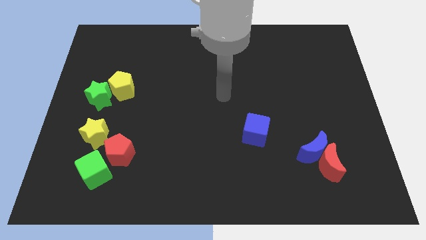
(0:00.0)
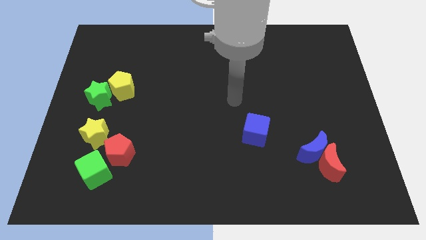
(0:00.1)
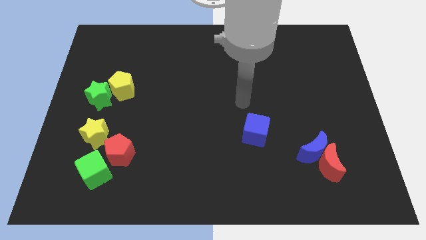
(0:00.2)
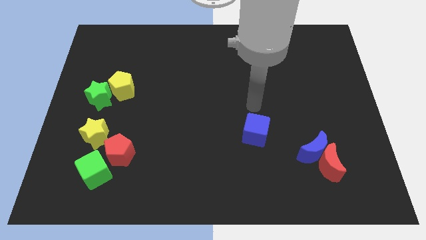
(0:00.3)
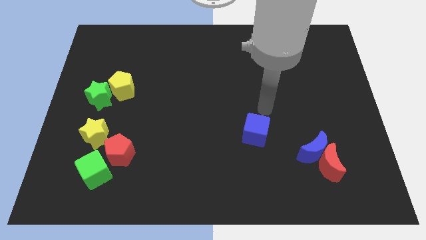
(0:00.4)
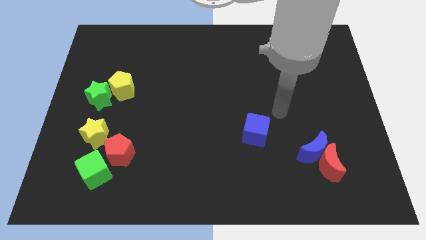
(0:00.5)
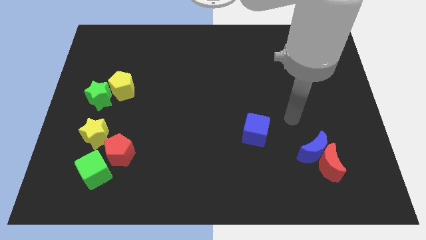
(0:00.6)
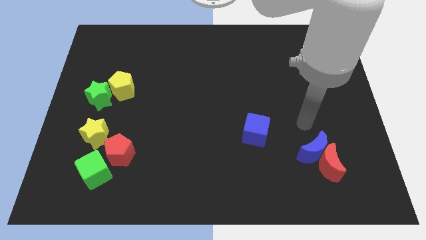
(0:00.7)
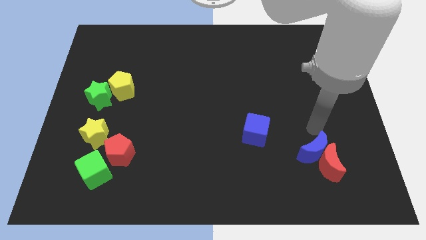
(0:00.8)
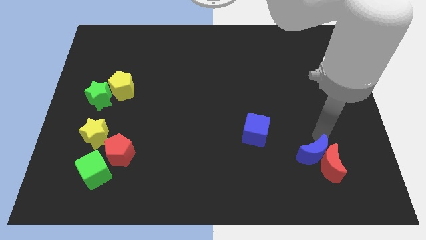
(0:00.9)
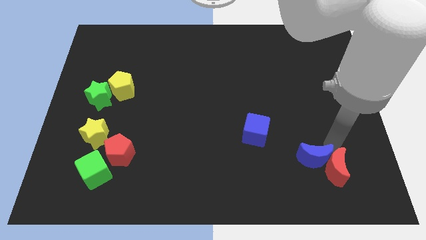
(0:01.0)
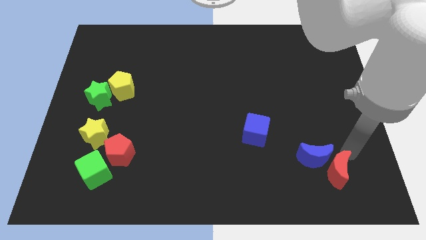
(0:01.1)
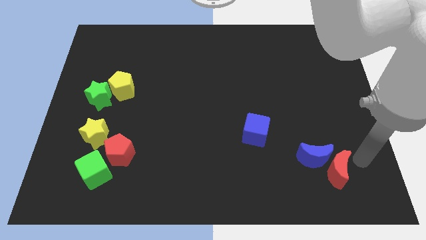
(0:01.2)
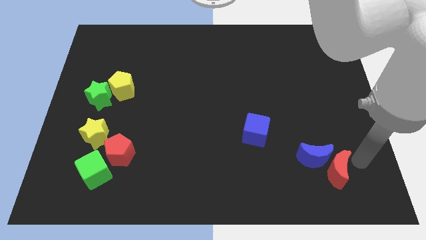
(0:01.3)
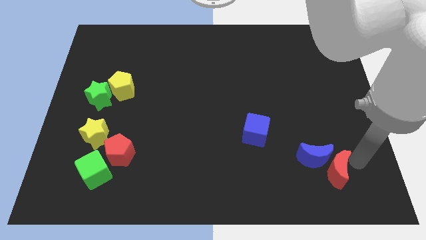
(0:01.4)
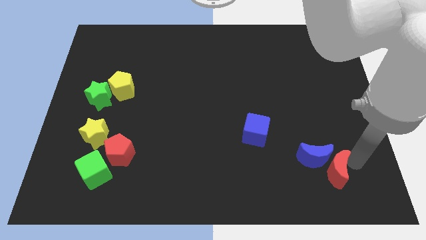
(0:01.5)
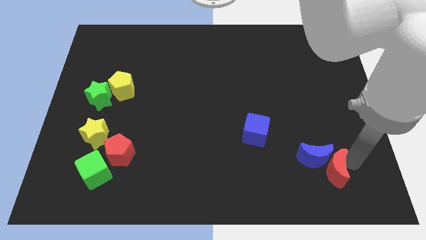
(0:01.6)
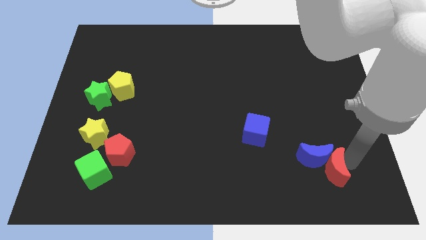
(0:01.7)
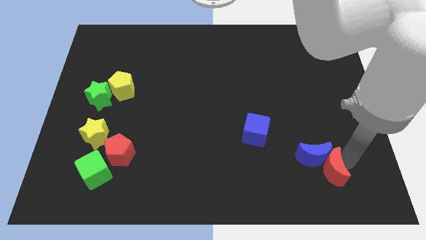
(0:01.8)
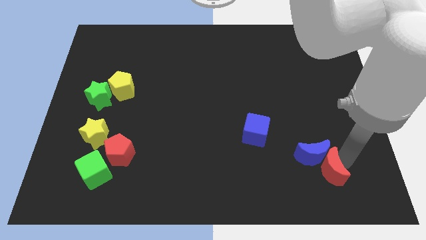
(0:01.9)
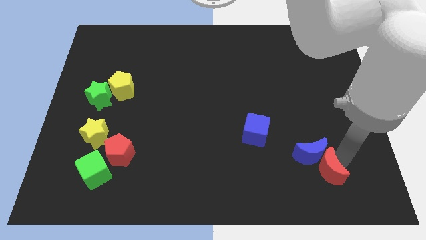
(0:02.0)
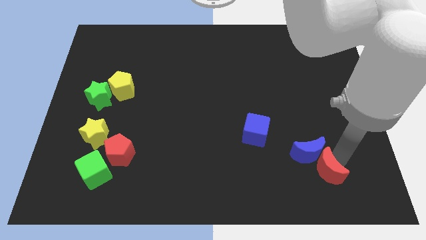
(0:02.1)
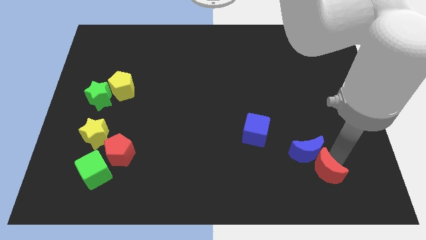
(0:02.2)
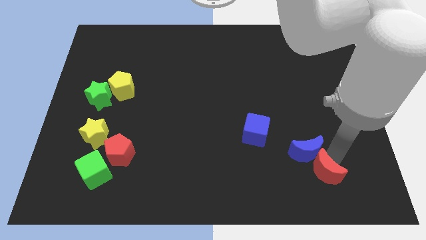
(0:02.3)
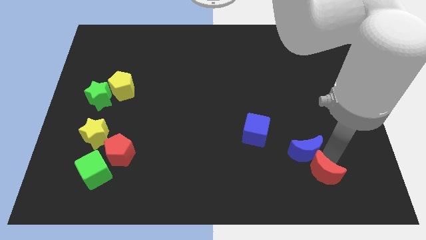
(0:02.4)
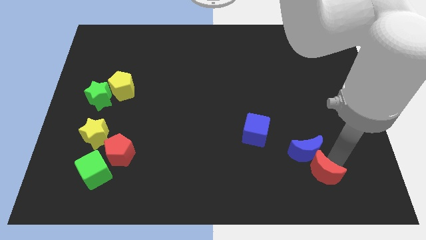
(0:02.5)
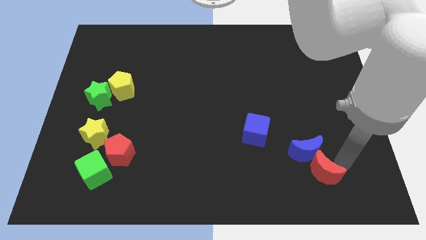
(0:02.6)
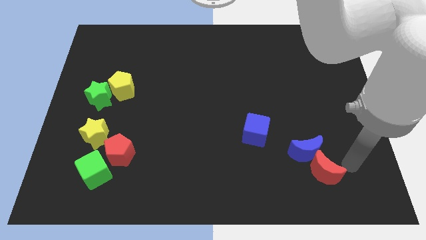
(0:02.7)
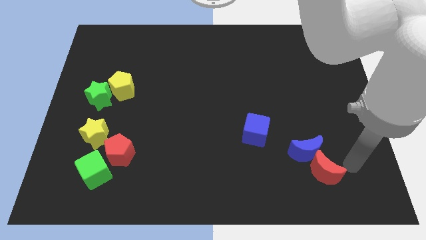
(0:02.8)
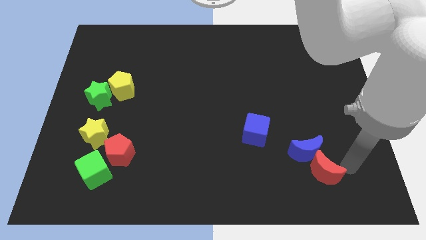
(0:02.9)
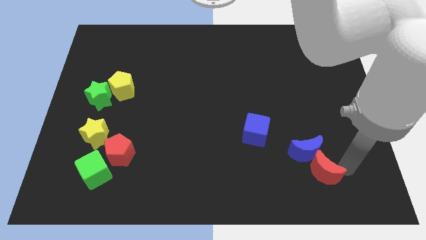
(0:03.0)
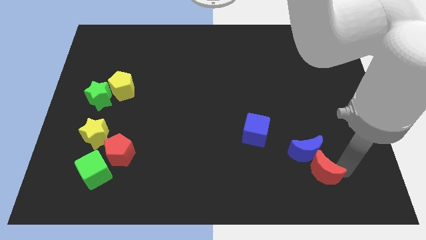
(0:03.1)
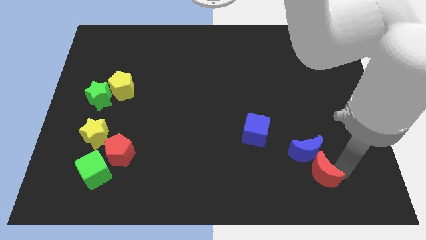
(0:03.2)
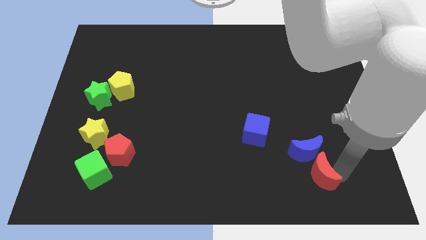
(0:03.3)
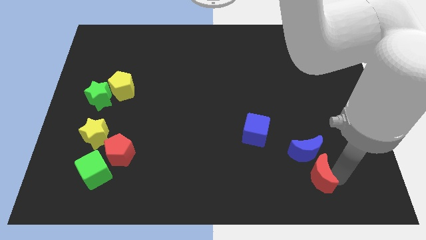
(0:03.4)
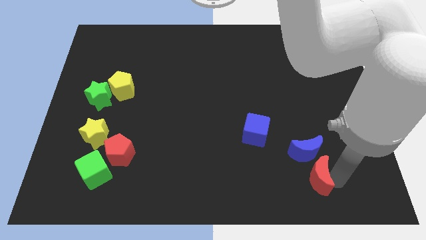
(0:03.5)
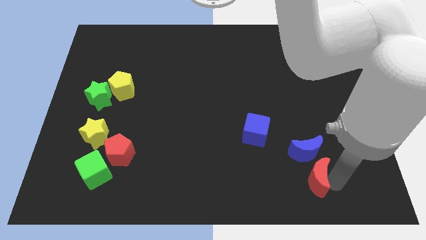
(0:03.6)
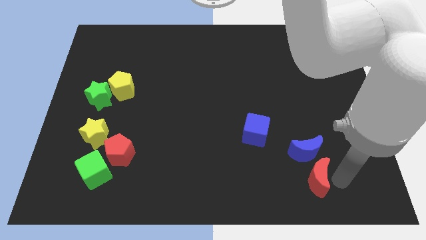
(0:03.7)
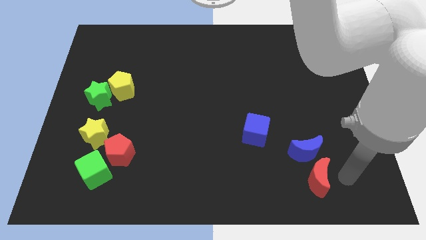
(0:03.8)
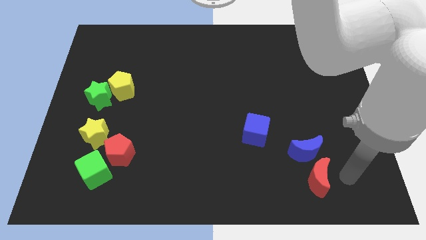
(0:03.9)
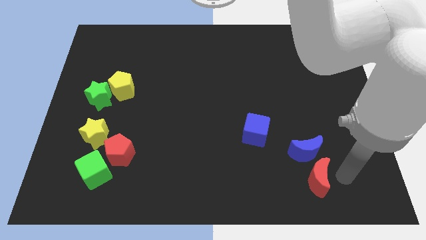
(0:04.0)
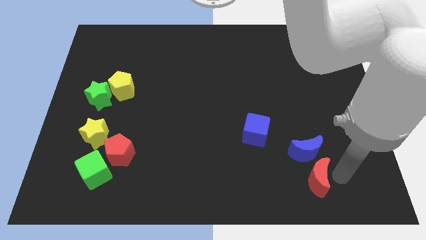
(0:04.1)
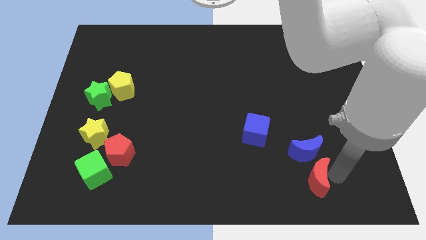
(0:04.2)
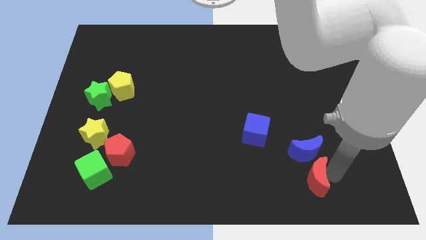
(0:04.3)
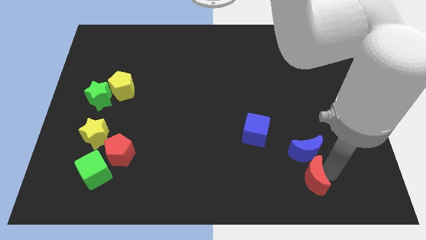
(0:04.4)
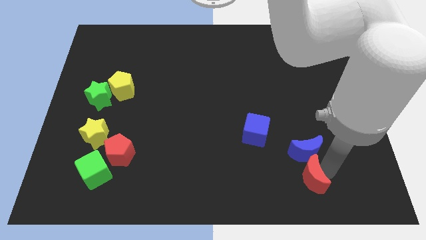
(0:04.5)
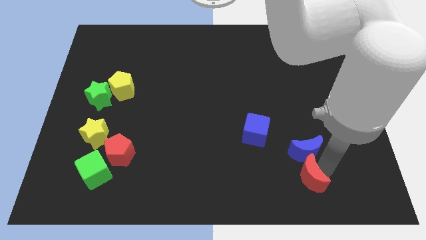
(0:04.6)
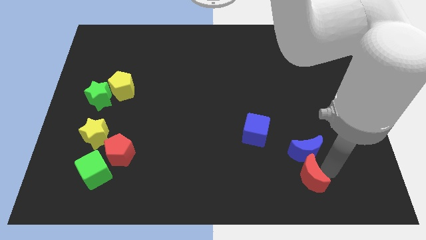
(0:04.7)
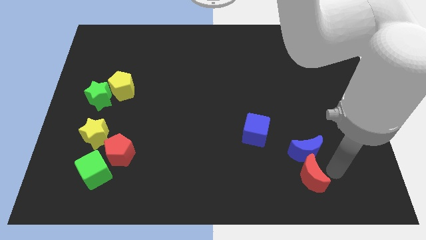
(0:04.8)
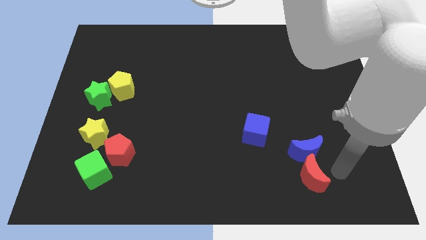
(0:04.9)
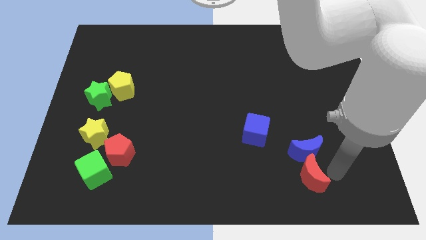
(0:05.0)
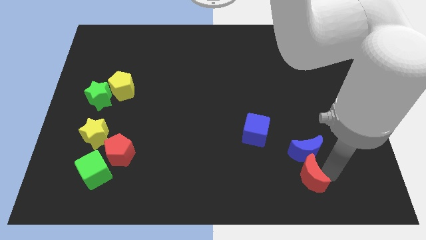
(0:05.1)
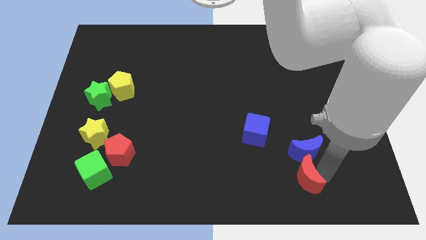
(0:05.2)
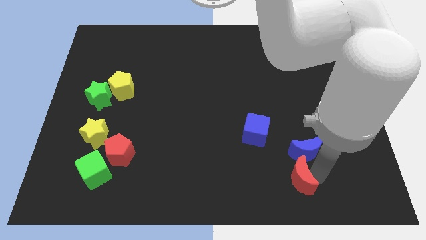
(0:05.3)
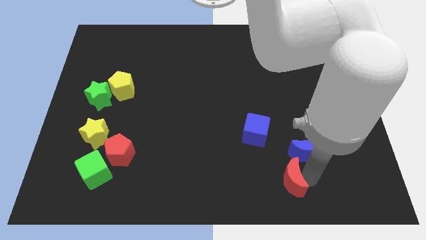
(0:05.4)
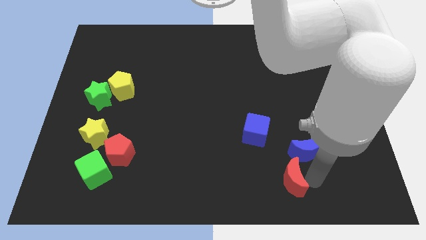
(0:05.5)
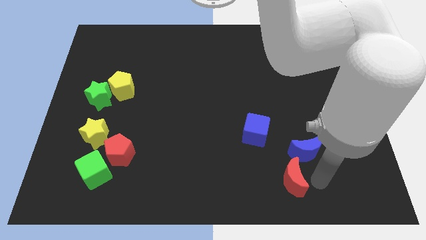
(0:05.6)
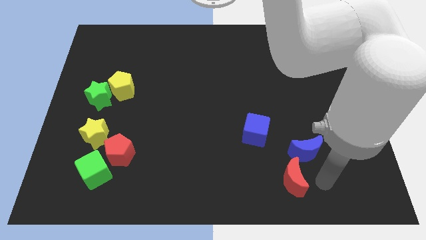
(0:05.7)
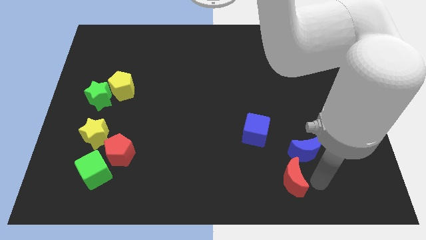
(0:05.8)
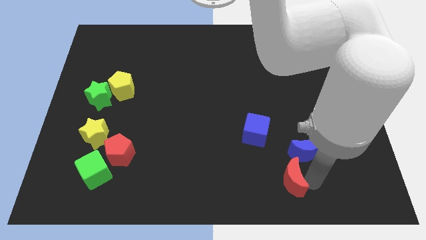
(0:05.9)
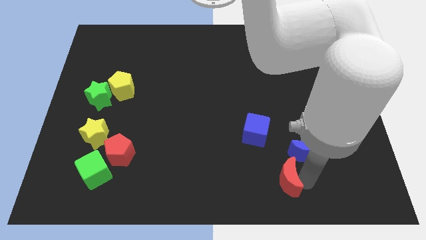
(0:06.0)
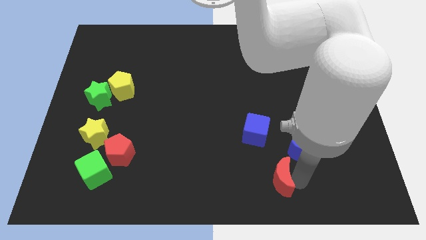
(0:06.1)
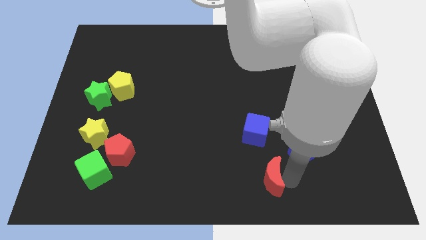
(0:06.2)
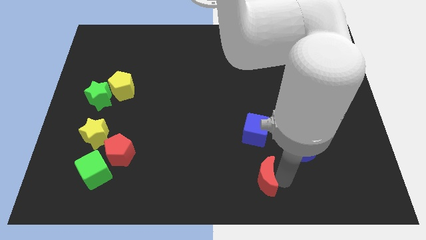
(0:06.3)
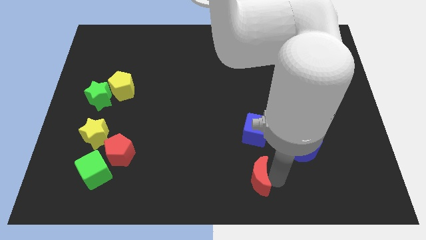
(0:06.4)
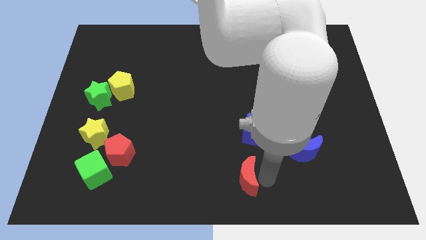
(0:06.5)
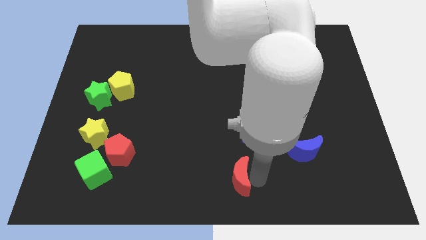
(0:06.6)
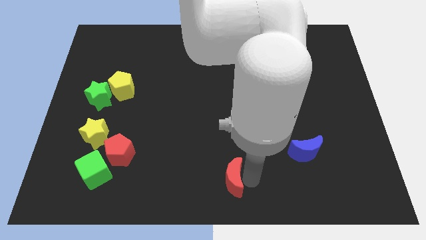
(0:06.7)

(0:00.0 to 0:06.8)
slide the red moon left

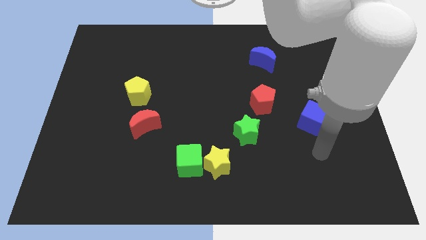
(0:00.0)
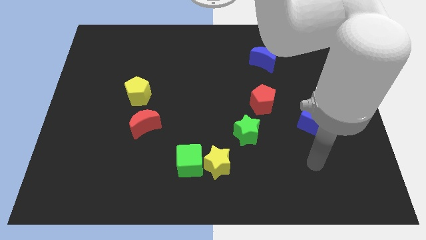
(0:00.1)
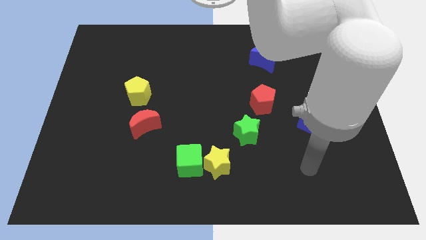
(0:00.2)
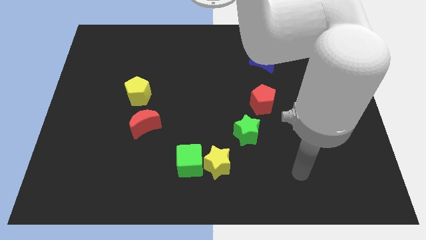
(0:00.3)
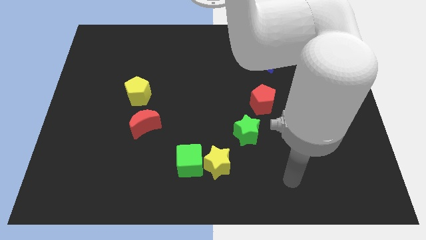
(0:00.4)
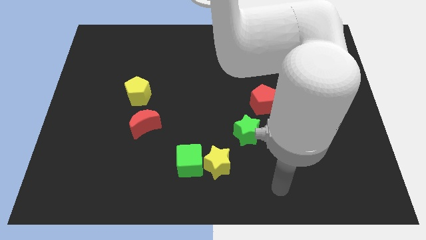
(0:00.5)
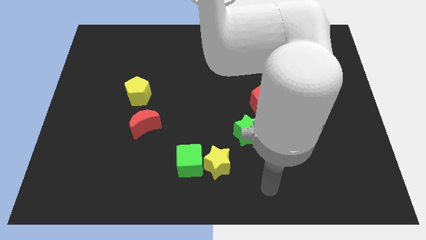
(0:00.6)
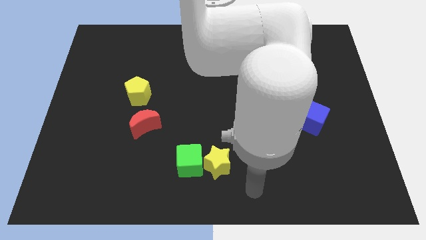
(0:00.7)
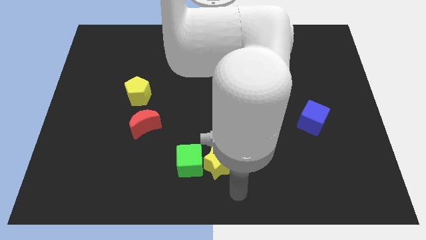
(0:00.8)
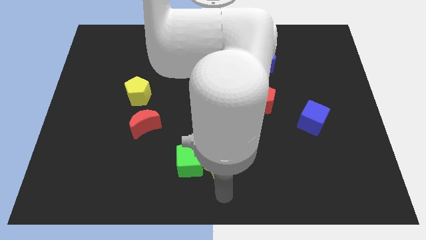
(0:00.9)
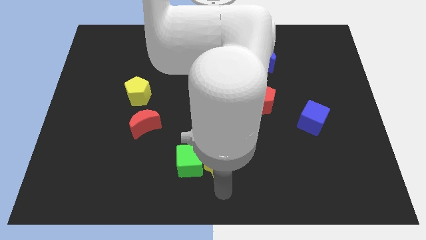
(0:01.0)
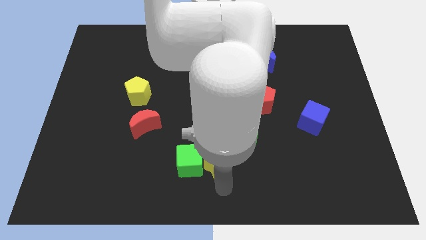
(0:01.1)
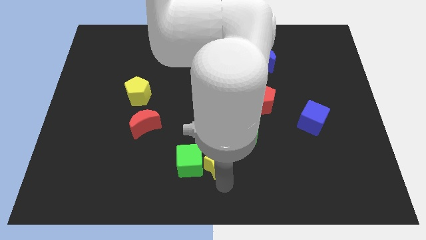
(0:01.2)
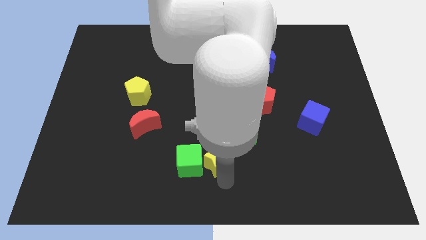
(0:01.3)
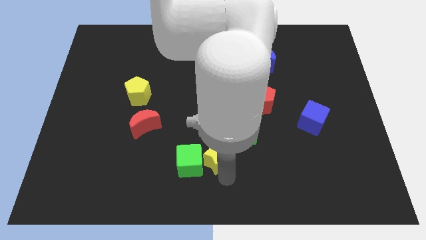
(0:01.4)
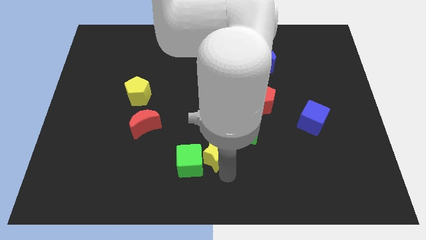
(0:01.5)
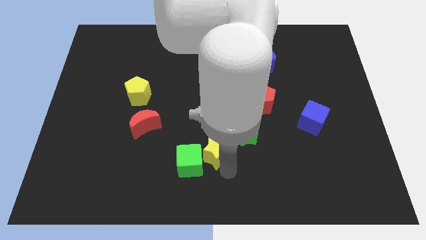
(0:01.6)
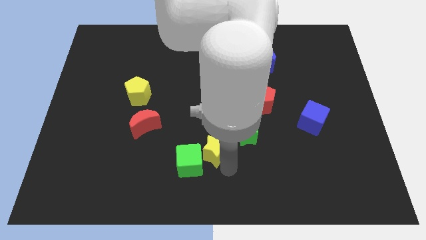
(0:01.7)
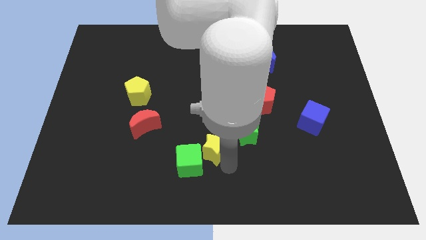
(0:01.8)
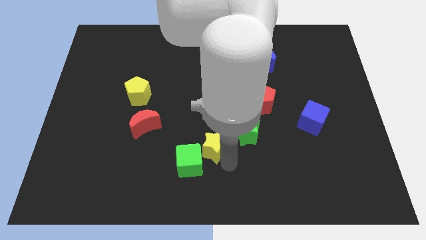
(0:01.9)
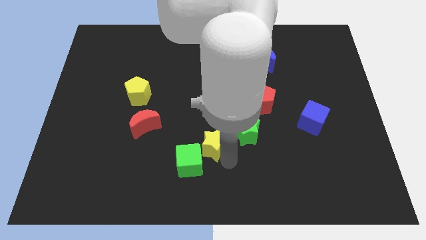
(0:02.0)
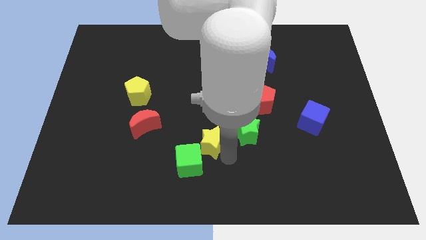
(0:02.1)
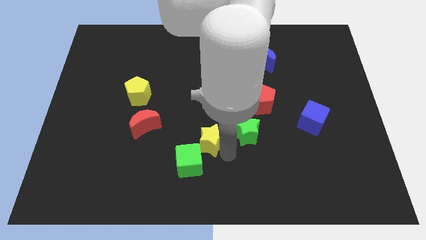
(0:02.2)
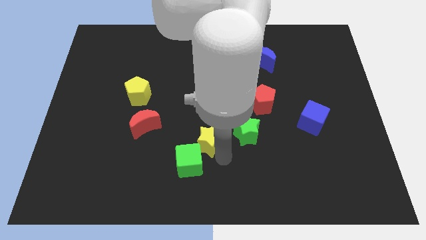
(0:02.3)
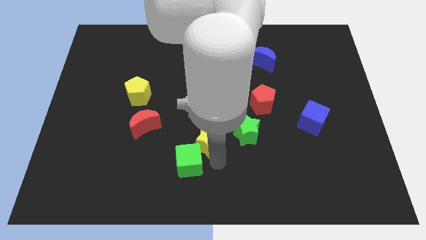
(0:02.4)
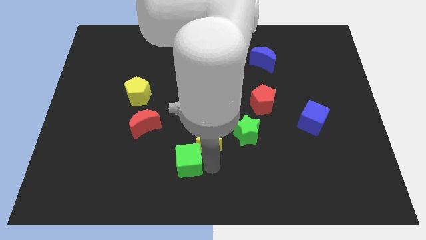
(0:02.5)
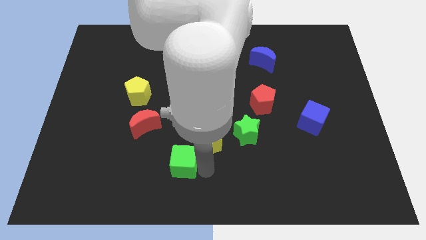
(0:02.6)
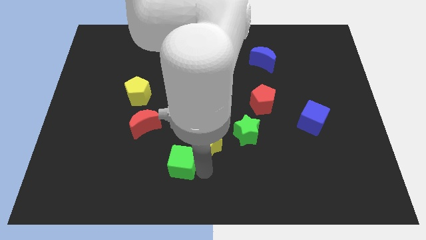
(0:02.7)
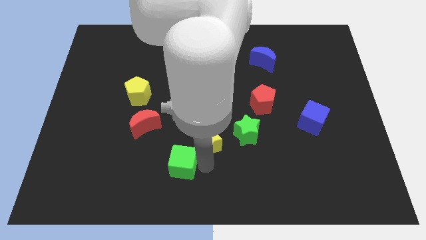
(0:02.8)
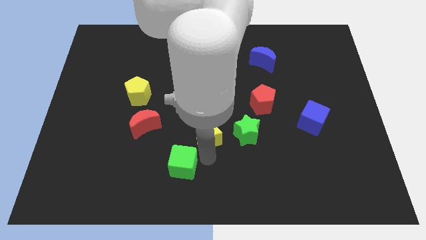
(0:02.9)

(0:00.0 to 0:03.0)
move the yellow star a little bit up
